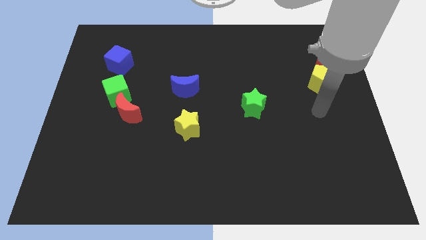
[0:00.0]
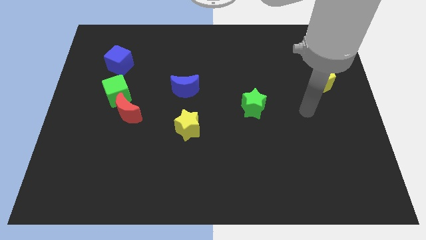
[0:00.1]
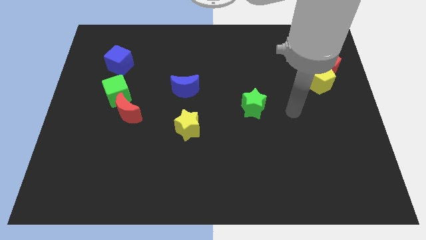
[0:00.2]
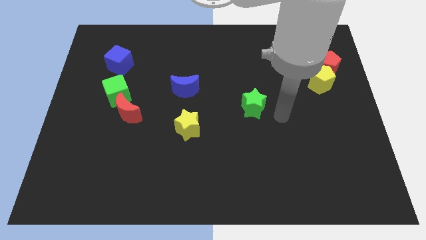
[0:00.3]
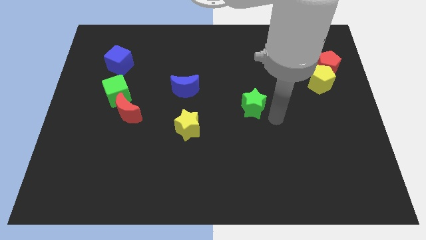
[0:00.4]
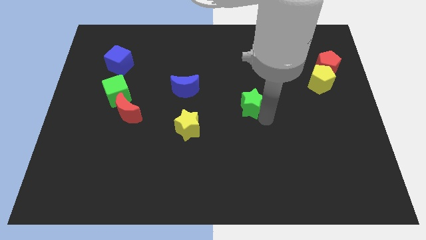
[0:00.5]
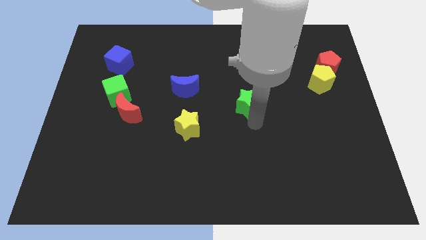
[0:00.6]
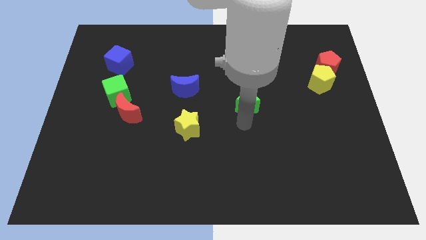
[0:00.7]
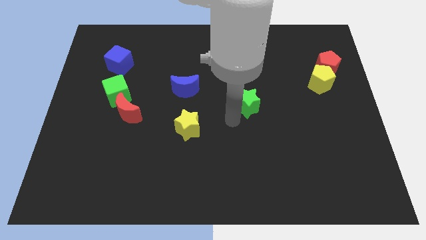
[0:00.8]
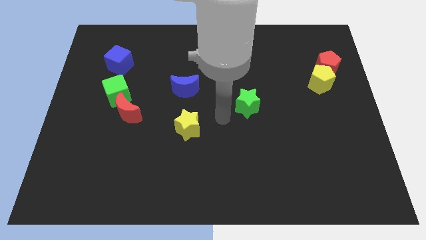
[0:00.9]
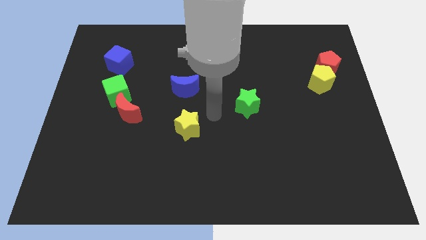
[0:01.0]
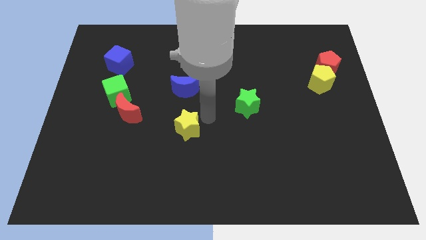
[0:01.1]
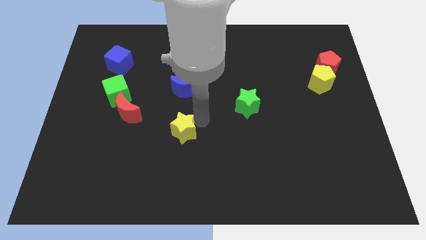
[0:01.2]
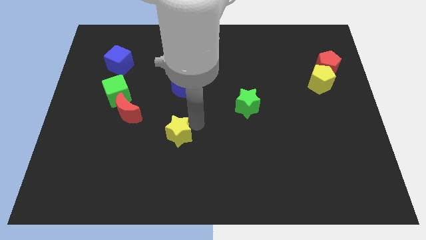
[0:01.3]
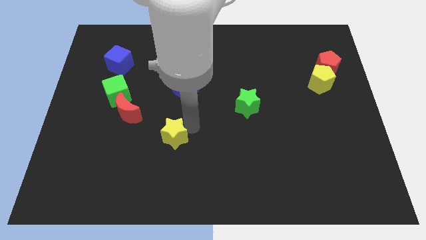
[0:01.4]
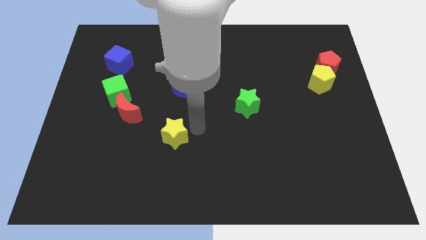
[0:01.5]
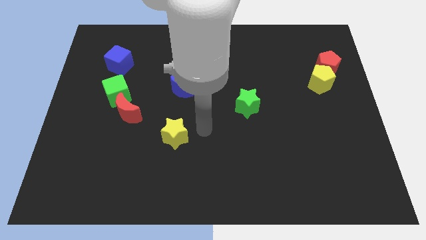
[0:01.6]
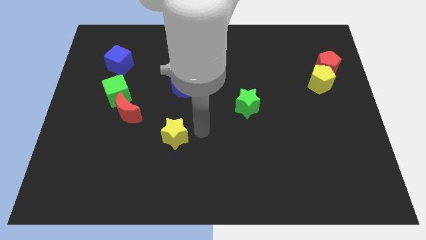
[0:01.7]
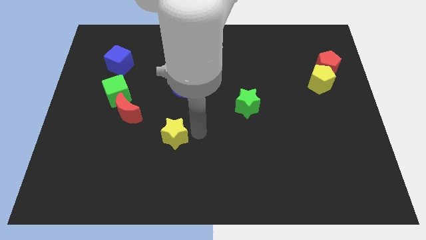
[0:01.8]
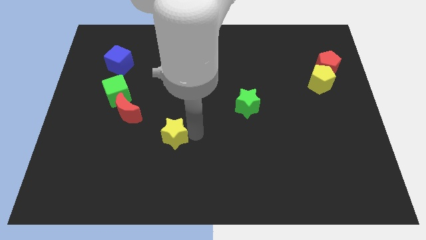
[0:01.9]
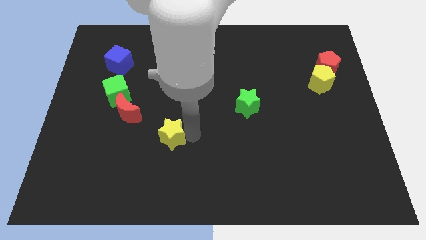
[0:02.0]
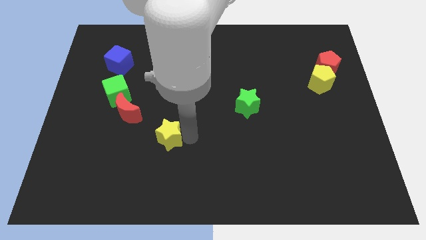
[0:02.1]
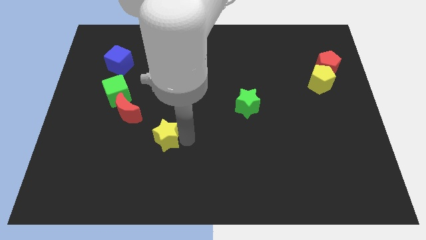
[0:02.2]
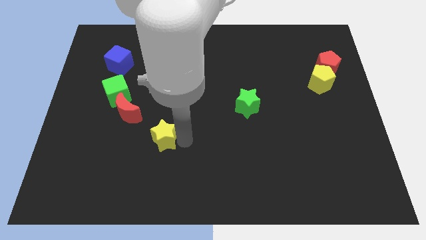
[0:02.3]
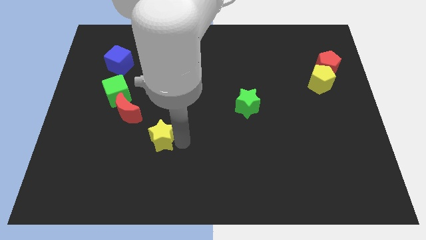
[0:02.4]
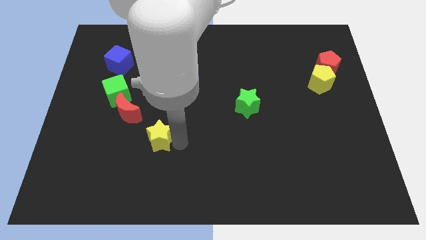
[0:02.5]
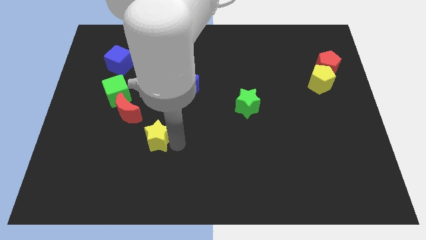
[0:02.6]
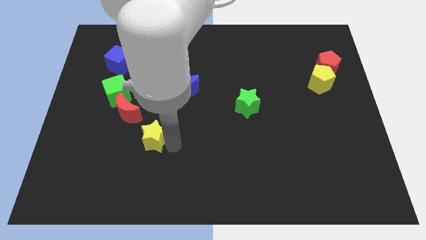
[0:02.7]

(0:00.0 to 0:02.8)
push the yellow star to the left somewhat

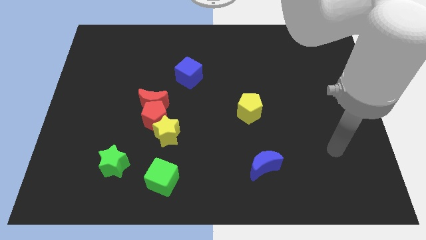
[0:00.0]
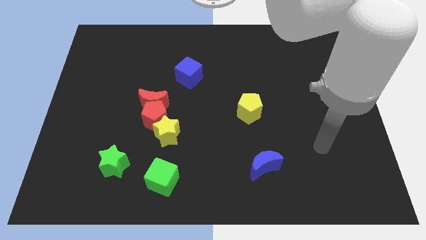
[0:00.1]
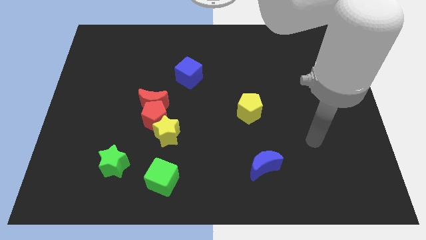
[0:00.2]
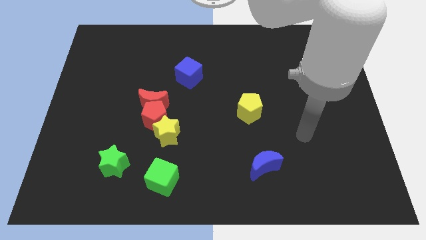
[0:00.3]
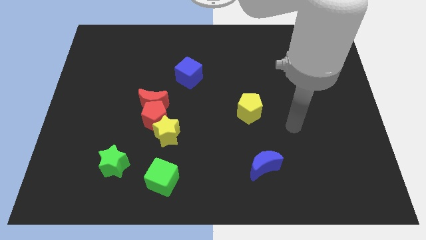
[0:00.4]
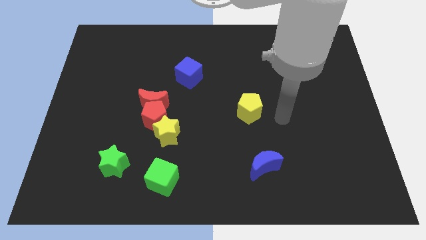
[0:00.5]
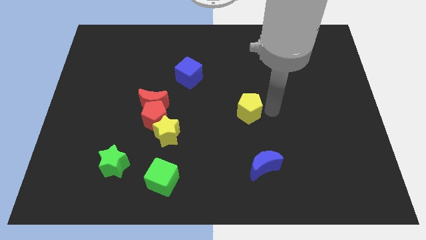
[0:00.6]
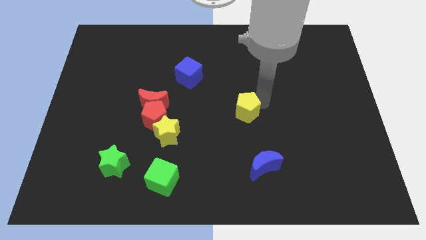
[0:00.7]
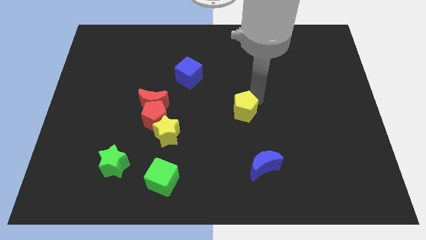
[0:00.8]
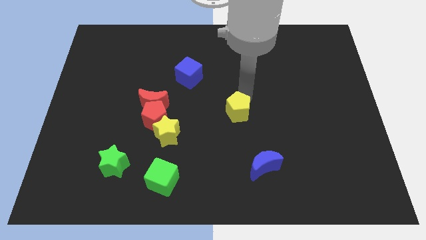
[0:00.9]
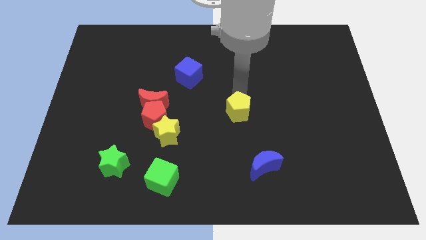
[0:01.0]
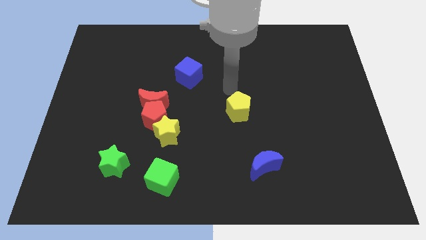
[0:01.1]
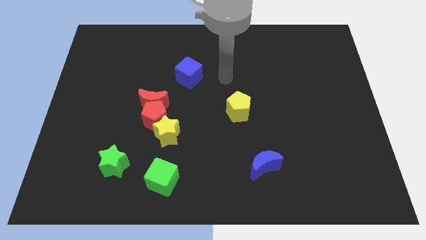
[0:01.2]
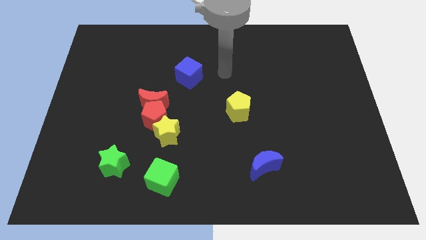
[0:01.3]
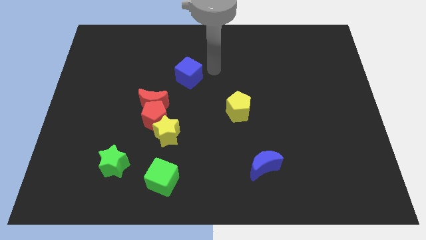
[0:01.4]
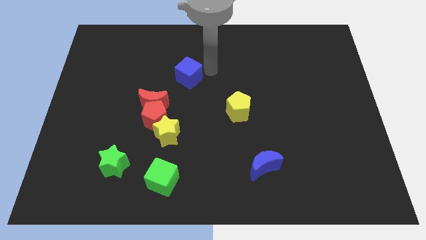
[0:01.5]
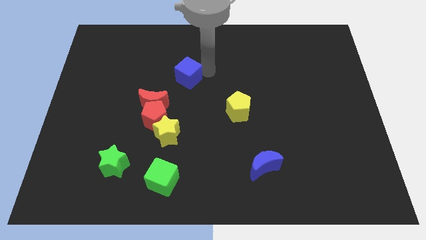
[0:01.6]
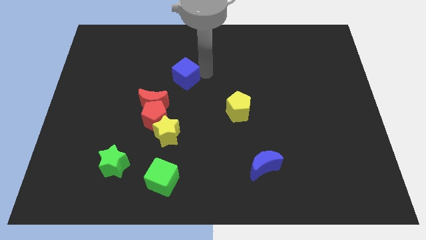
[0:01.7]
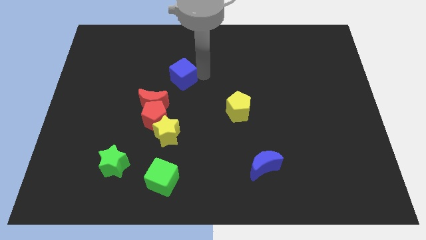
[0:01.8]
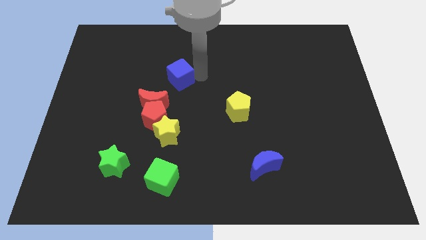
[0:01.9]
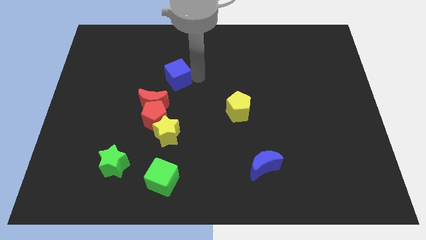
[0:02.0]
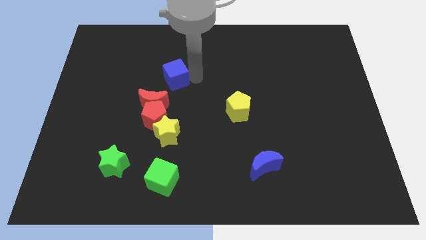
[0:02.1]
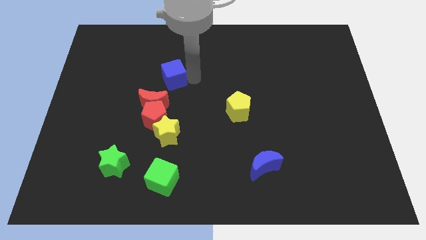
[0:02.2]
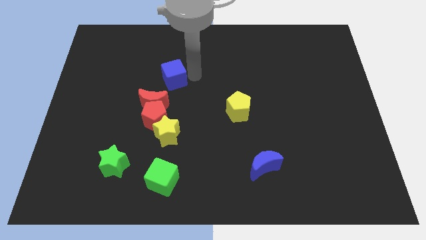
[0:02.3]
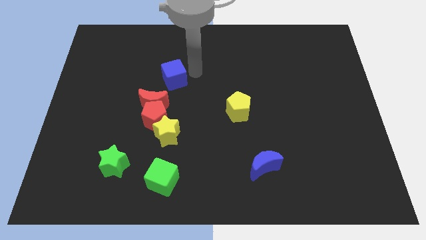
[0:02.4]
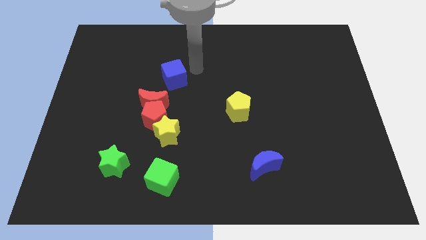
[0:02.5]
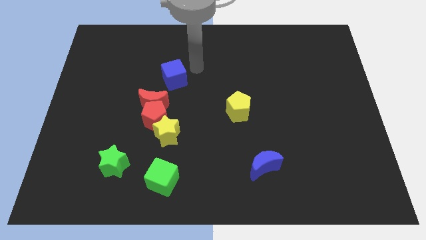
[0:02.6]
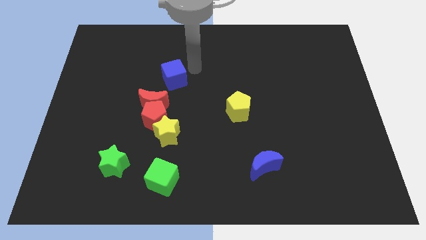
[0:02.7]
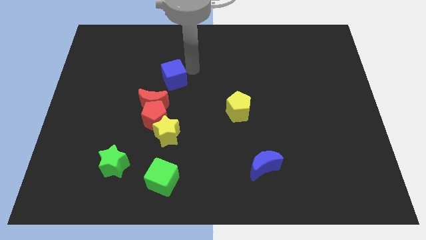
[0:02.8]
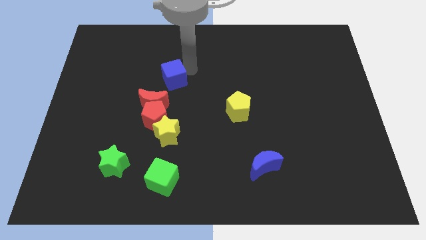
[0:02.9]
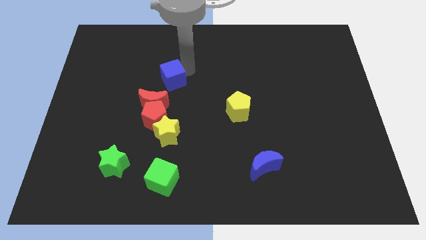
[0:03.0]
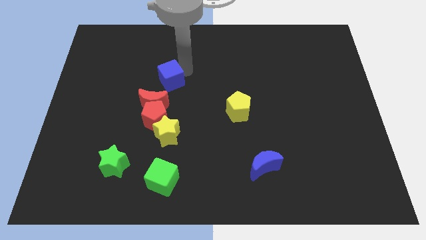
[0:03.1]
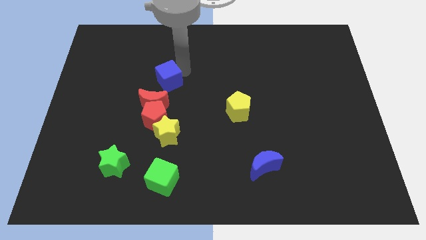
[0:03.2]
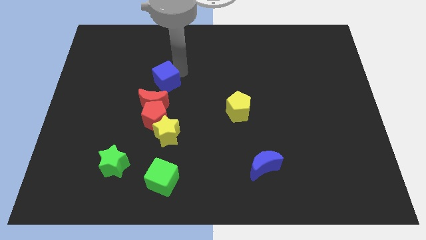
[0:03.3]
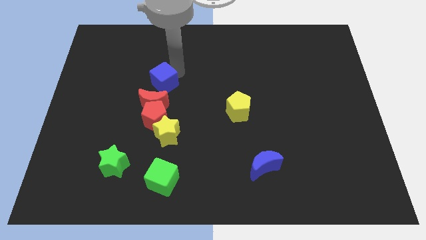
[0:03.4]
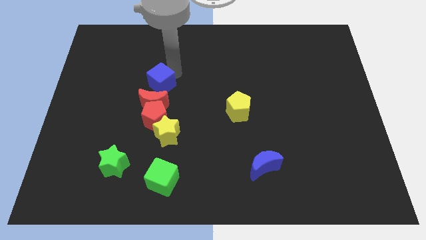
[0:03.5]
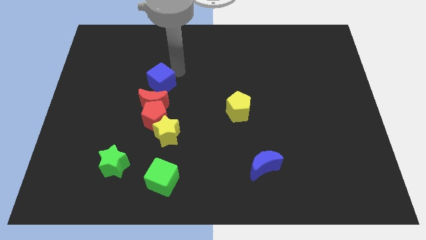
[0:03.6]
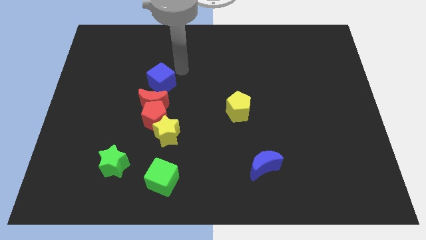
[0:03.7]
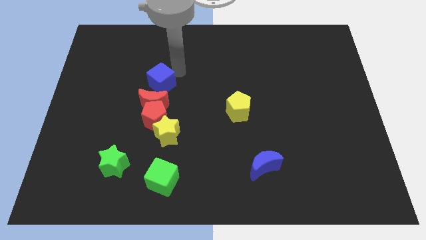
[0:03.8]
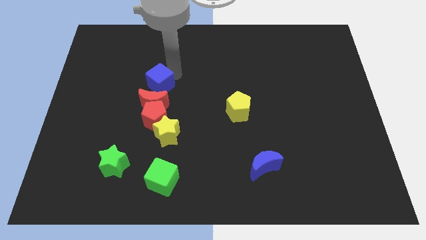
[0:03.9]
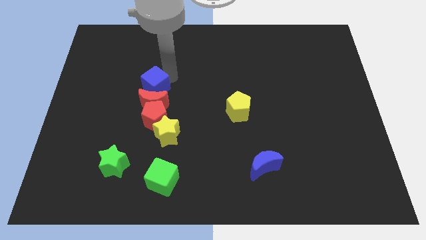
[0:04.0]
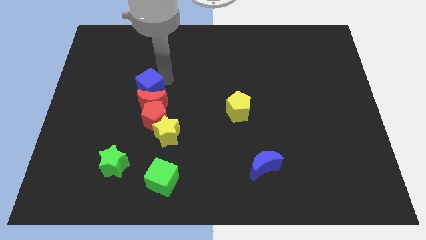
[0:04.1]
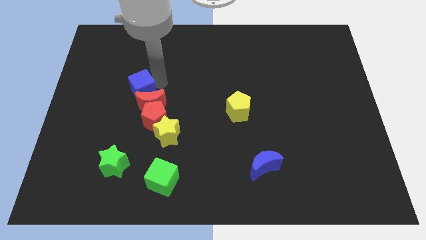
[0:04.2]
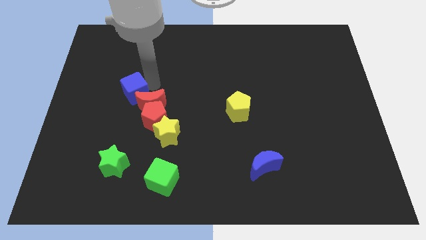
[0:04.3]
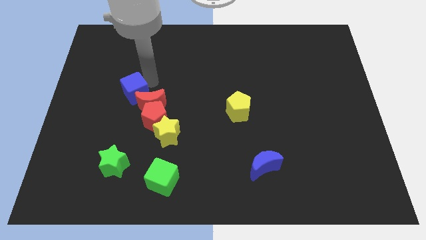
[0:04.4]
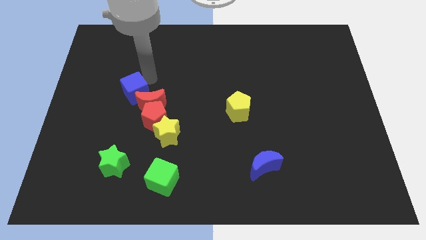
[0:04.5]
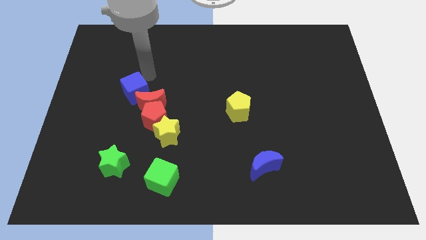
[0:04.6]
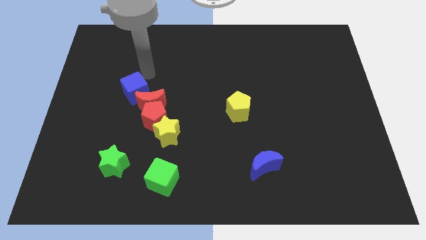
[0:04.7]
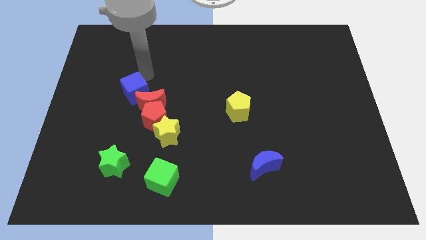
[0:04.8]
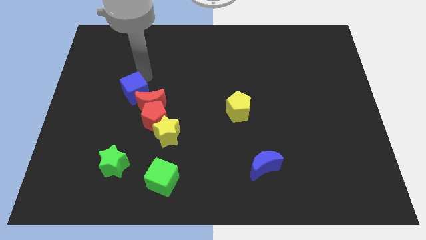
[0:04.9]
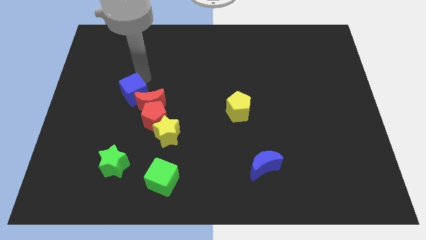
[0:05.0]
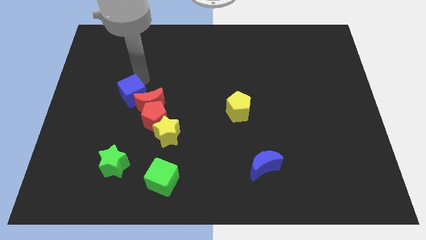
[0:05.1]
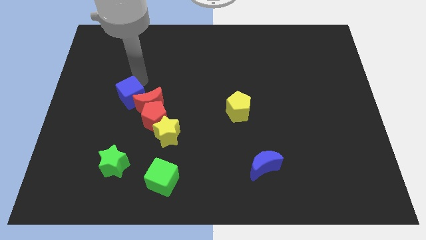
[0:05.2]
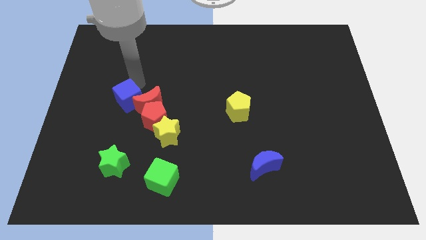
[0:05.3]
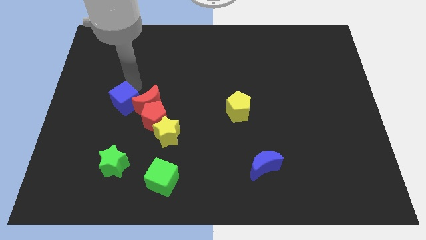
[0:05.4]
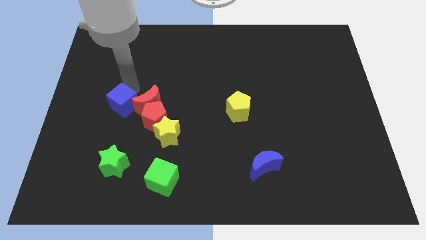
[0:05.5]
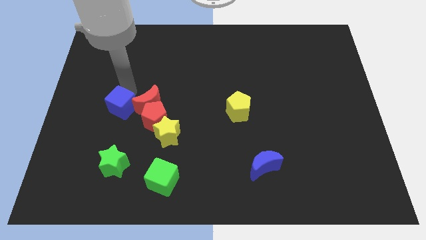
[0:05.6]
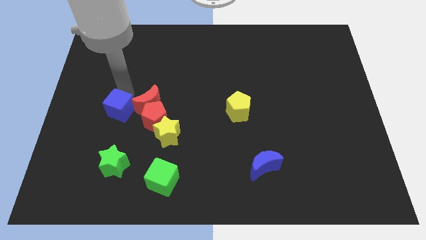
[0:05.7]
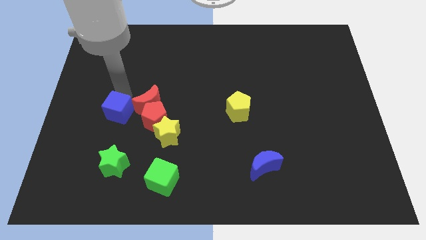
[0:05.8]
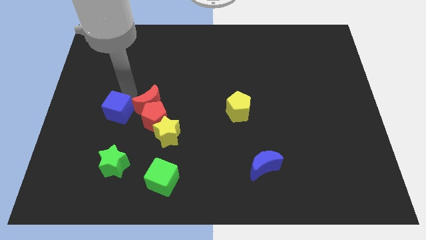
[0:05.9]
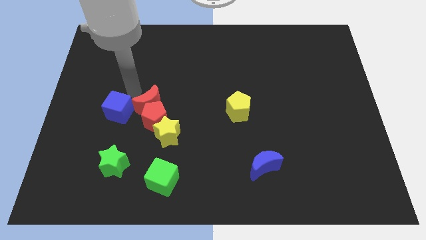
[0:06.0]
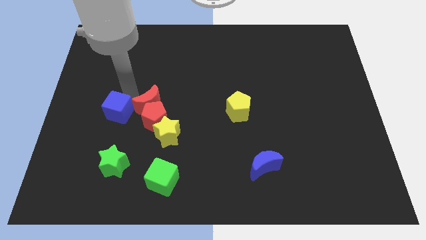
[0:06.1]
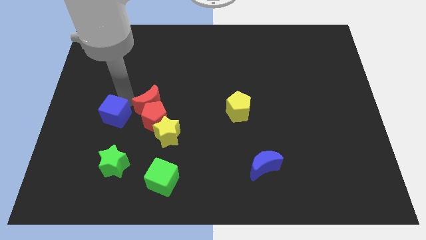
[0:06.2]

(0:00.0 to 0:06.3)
slide the blue cube diagonally downwards and to the left
